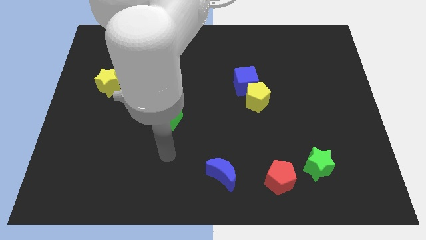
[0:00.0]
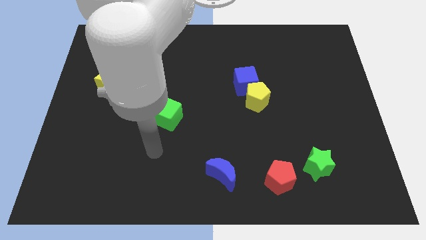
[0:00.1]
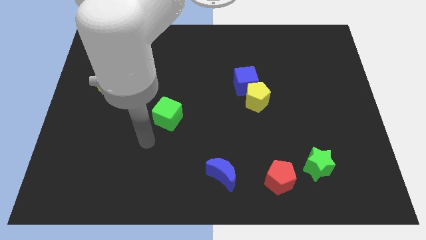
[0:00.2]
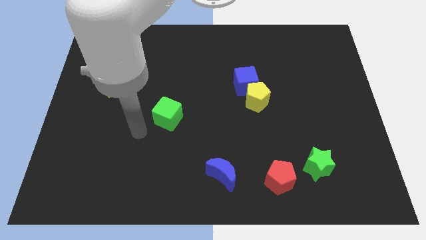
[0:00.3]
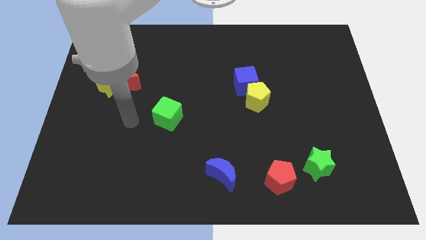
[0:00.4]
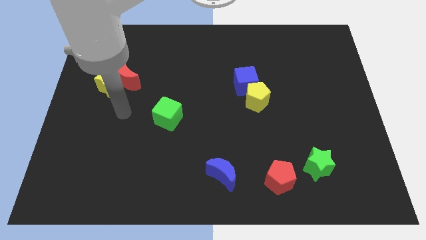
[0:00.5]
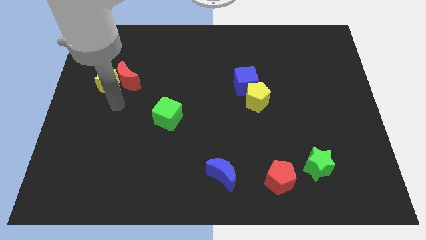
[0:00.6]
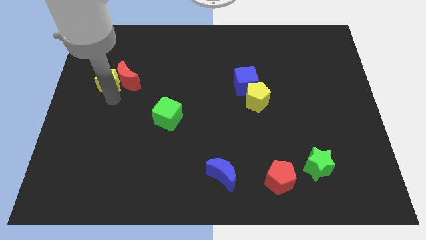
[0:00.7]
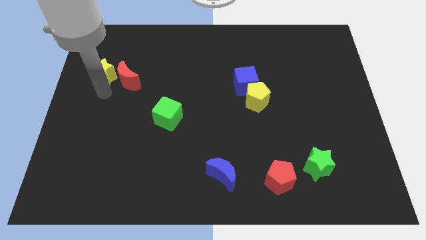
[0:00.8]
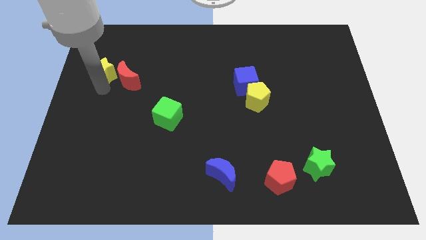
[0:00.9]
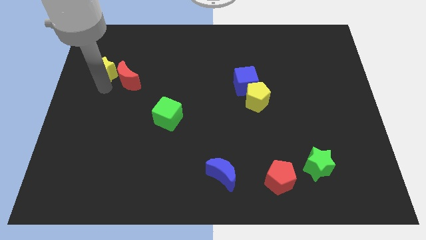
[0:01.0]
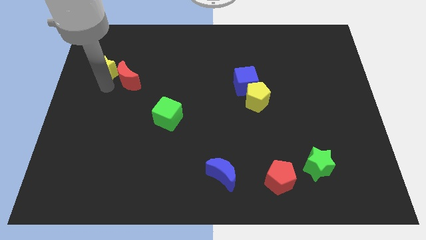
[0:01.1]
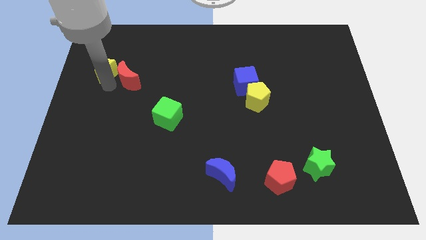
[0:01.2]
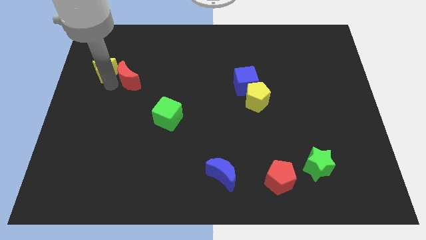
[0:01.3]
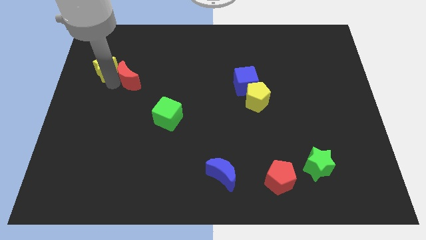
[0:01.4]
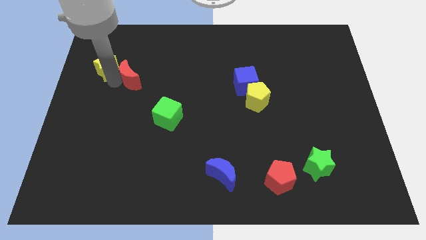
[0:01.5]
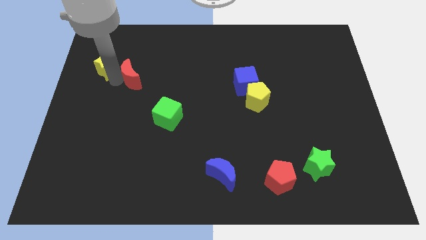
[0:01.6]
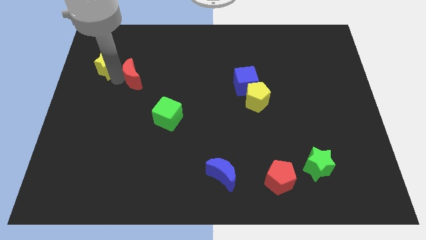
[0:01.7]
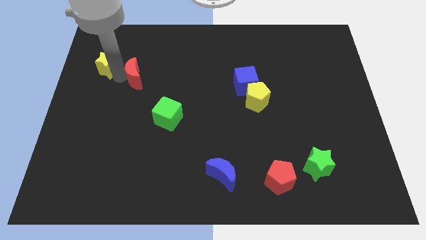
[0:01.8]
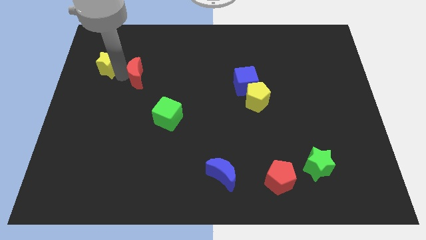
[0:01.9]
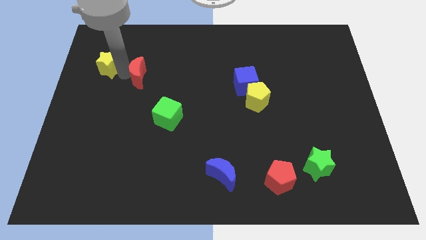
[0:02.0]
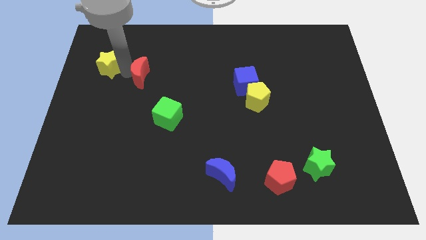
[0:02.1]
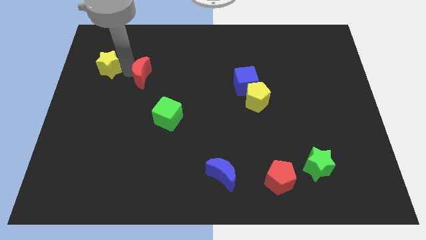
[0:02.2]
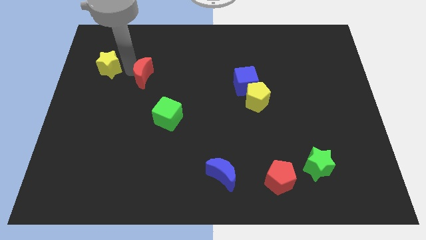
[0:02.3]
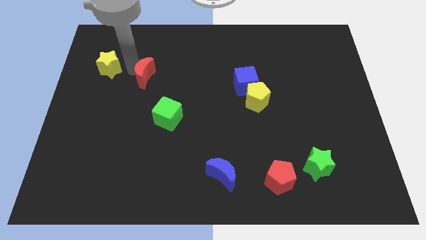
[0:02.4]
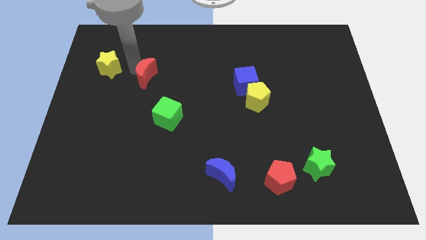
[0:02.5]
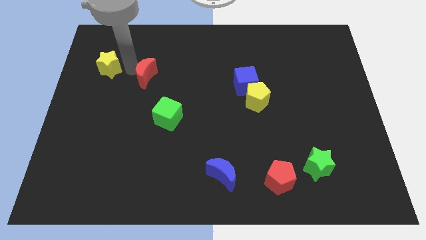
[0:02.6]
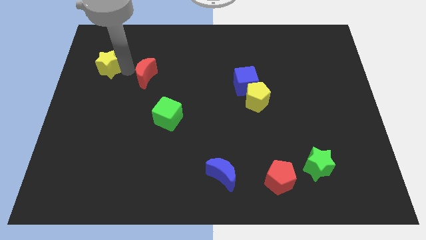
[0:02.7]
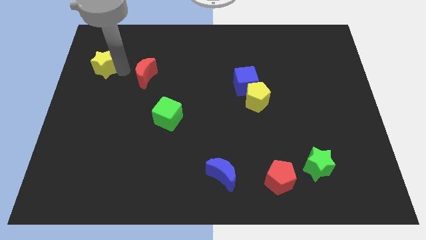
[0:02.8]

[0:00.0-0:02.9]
separate the red moon from the yellow star

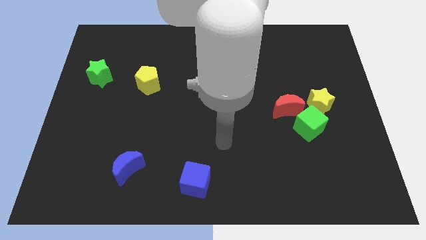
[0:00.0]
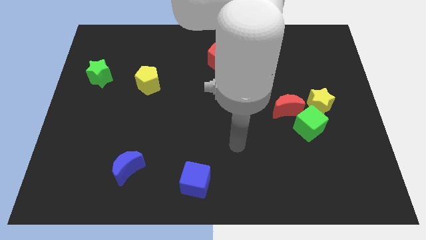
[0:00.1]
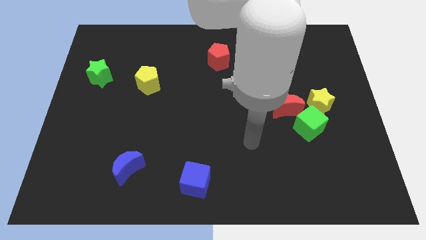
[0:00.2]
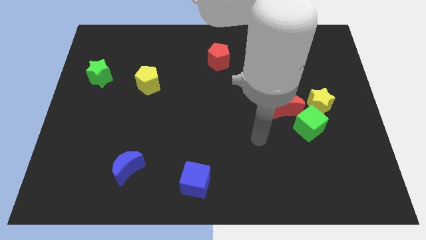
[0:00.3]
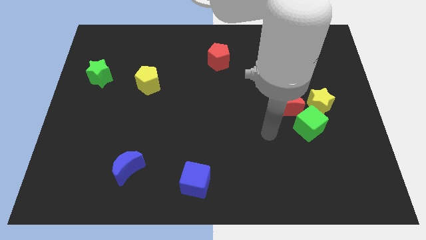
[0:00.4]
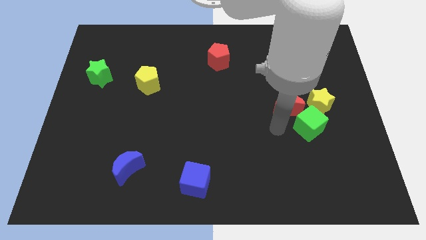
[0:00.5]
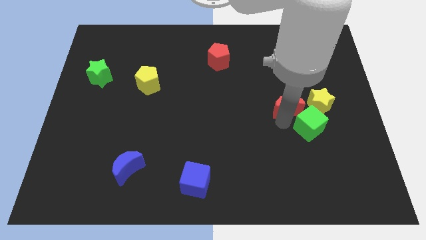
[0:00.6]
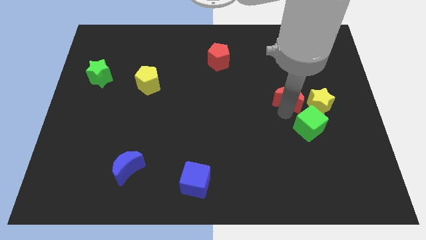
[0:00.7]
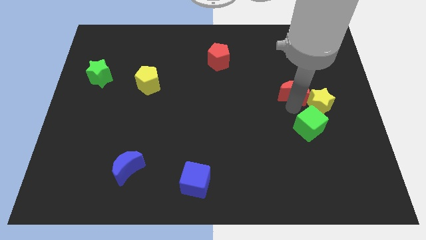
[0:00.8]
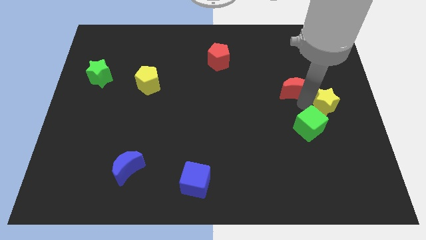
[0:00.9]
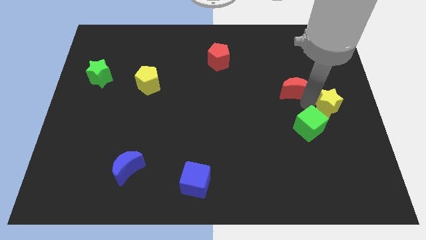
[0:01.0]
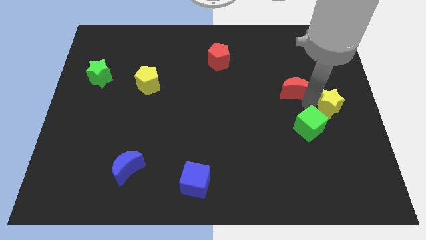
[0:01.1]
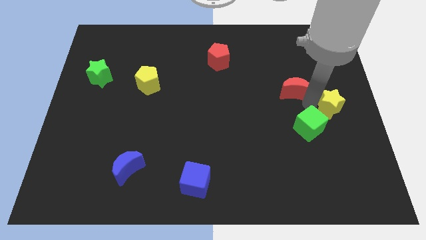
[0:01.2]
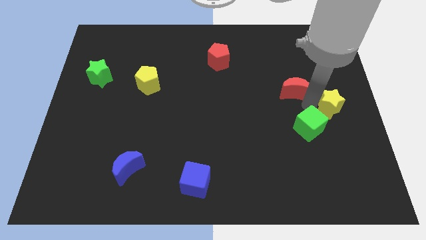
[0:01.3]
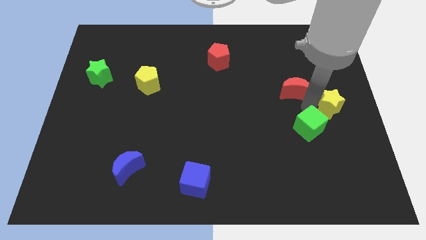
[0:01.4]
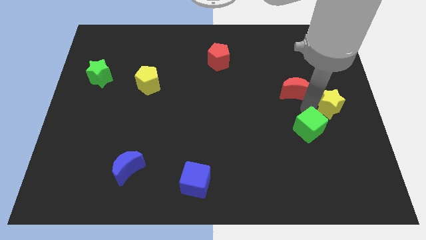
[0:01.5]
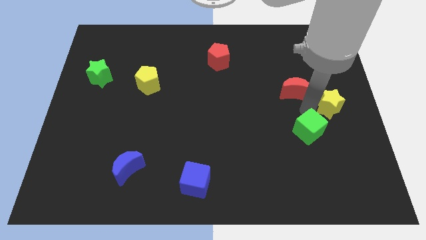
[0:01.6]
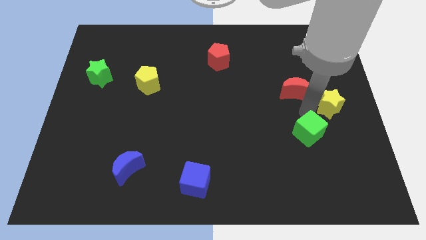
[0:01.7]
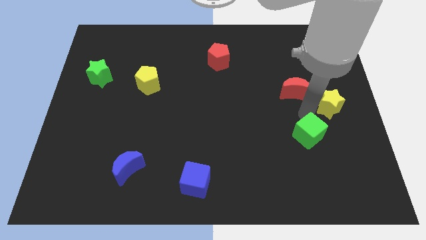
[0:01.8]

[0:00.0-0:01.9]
separate the green cube from the yellow star and red moon

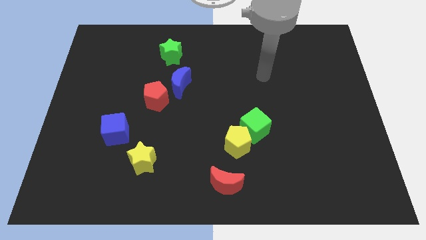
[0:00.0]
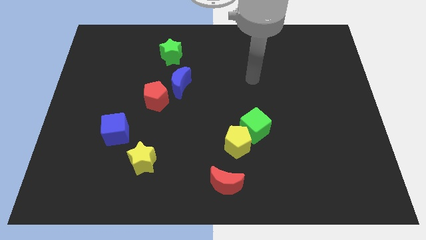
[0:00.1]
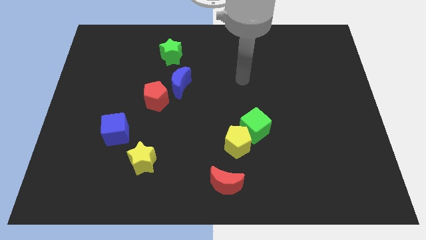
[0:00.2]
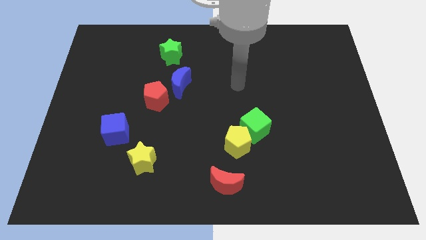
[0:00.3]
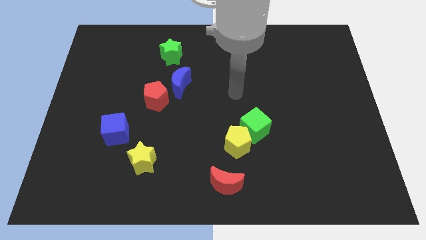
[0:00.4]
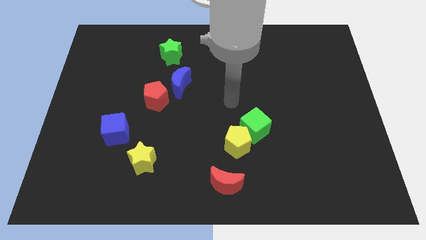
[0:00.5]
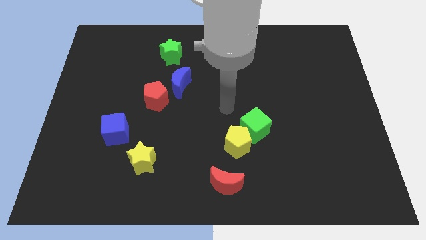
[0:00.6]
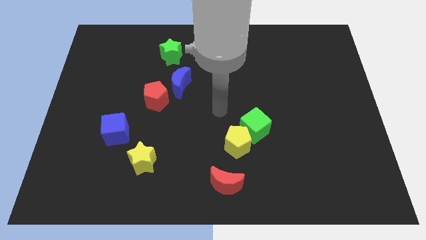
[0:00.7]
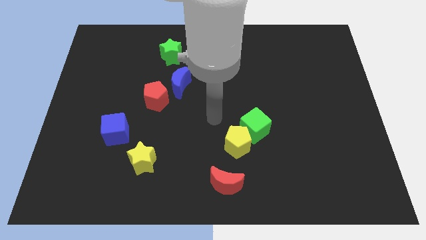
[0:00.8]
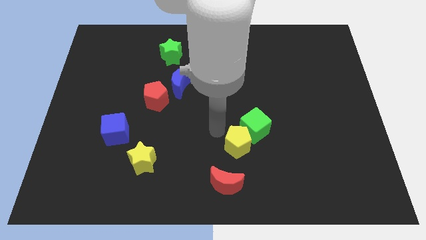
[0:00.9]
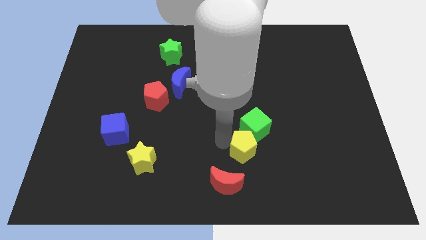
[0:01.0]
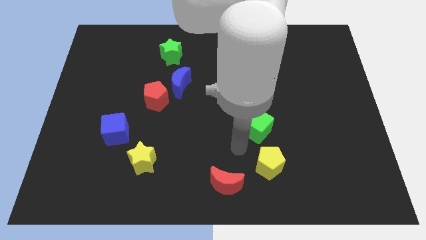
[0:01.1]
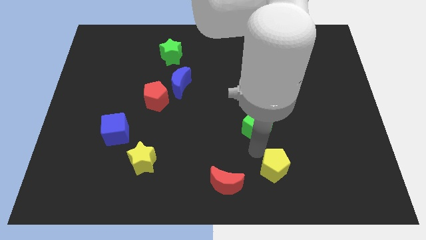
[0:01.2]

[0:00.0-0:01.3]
move the green cube away from the yellow pentagon

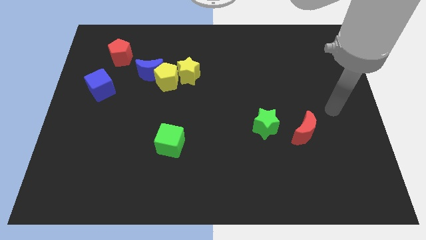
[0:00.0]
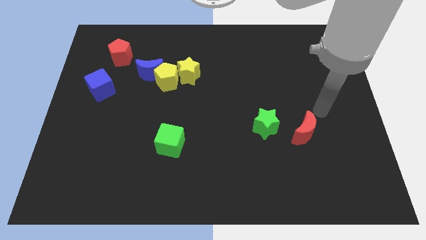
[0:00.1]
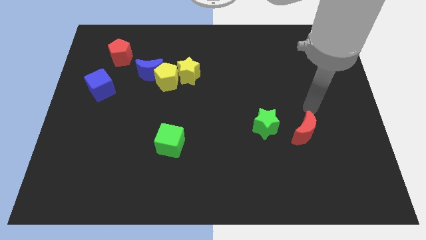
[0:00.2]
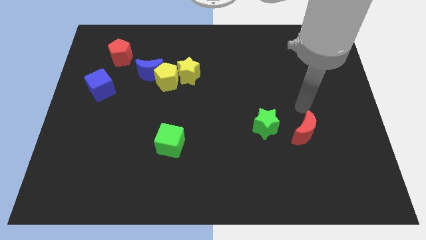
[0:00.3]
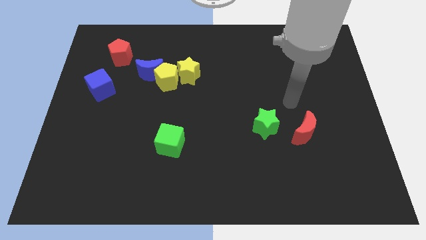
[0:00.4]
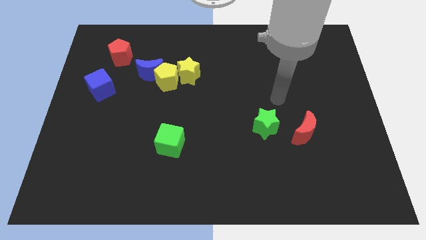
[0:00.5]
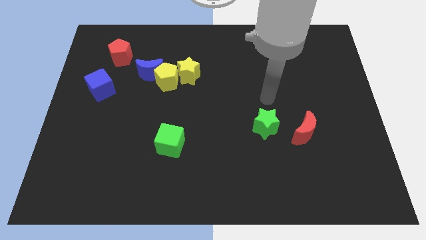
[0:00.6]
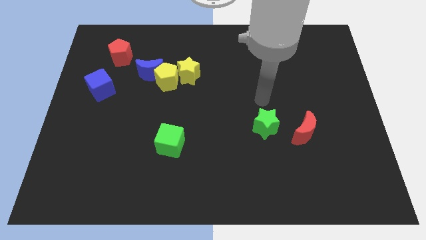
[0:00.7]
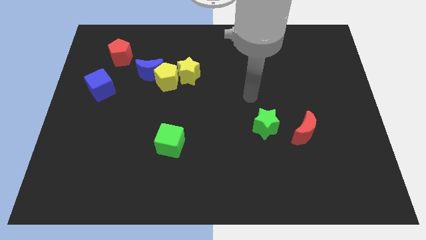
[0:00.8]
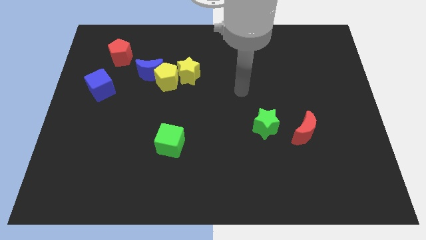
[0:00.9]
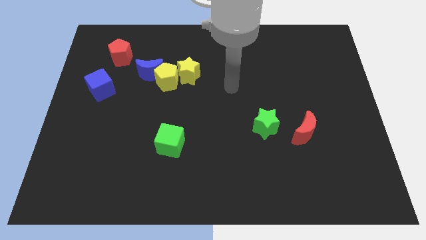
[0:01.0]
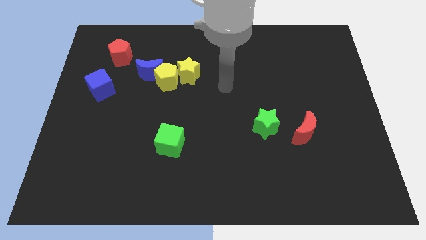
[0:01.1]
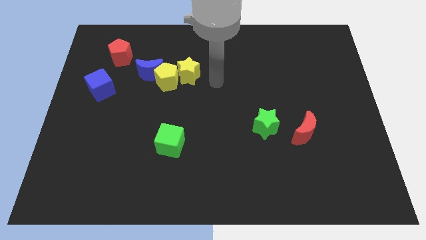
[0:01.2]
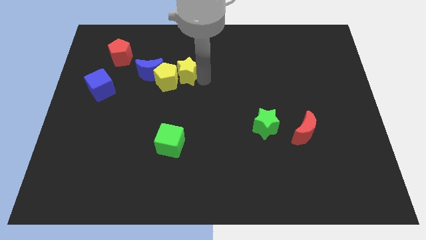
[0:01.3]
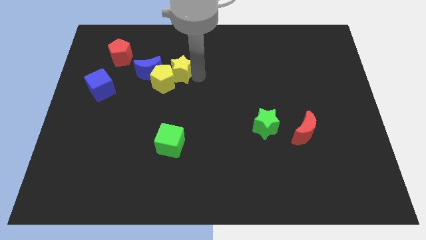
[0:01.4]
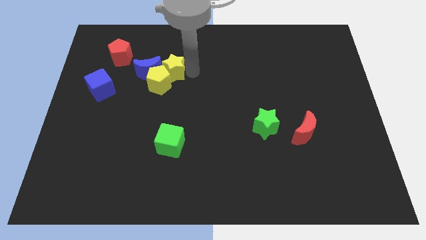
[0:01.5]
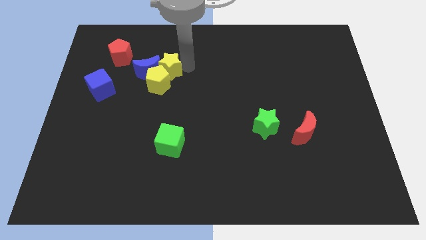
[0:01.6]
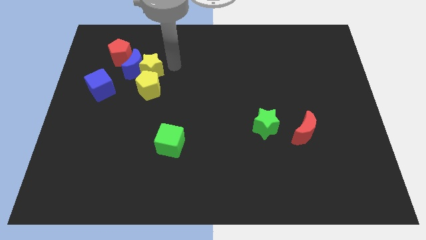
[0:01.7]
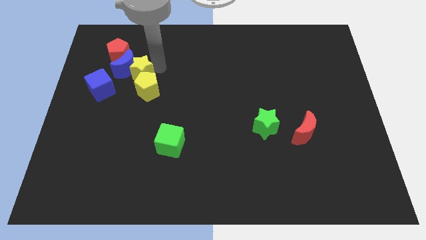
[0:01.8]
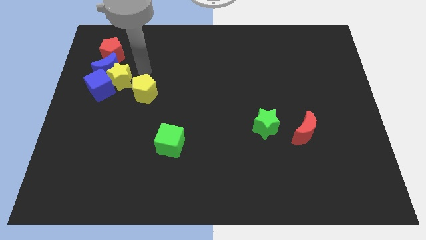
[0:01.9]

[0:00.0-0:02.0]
pull the yellow pentagon apart from the blue moon and yellow star

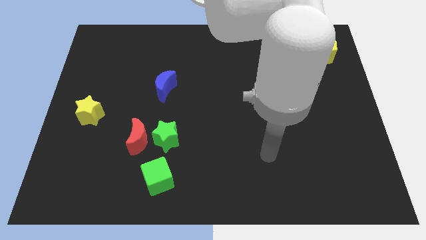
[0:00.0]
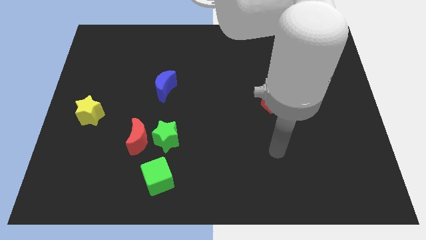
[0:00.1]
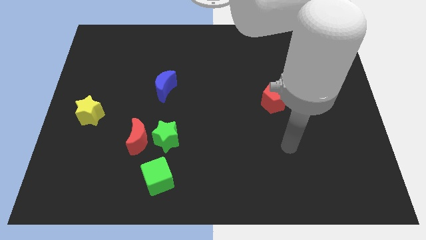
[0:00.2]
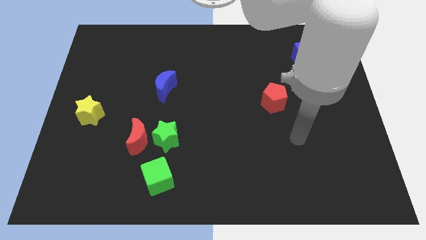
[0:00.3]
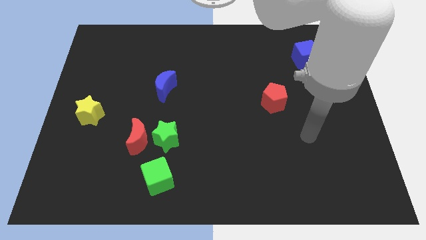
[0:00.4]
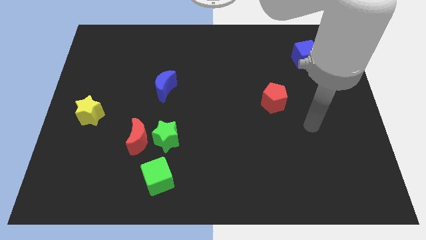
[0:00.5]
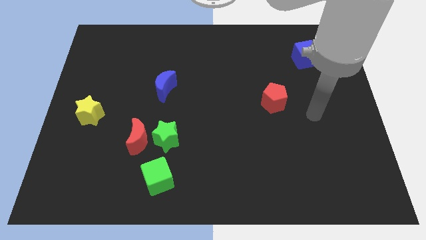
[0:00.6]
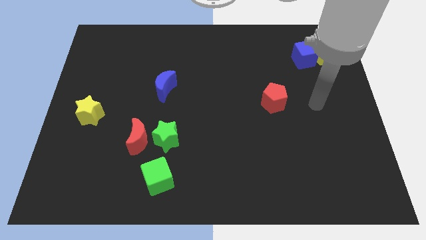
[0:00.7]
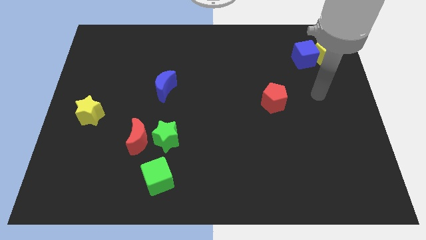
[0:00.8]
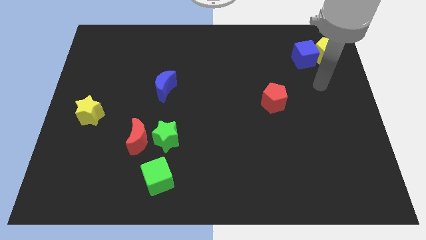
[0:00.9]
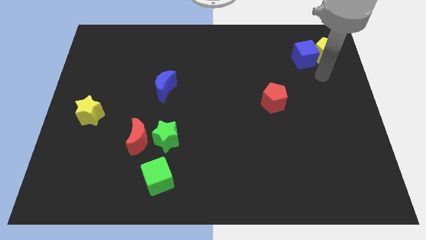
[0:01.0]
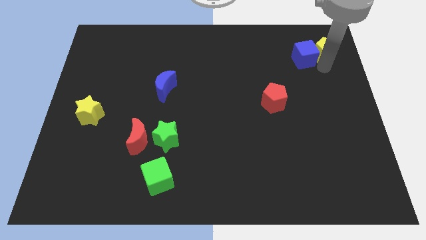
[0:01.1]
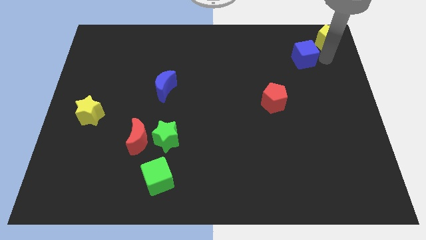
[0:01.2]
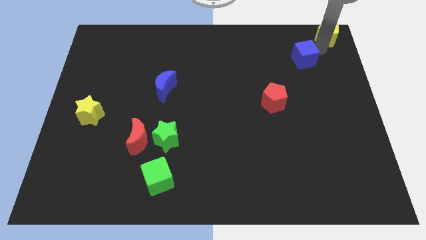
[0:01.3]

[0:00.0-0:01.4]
separate the blue cube from the yellow pentagon
